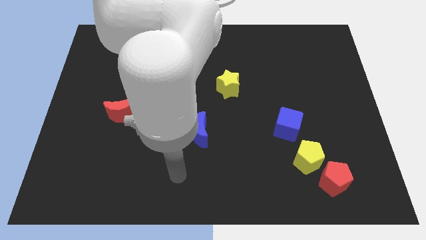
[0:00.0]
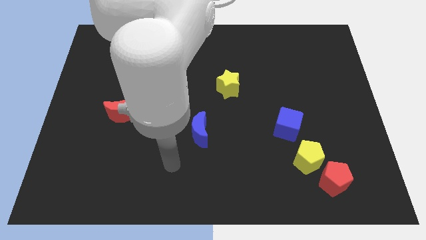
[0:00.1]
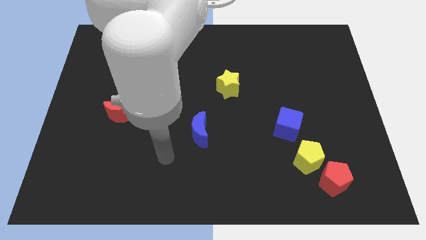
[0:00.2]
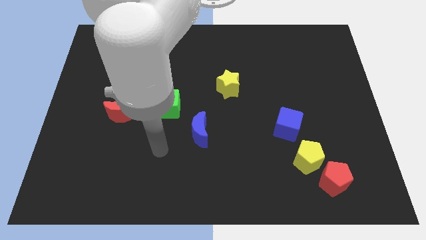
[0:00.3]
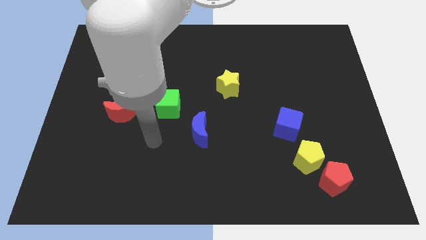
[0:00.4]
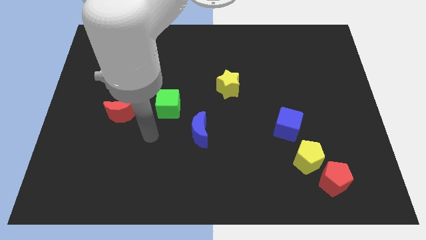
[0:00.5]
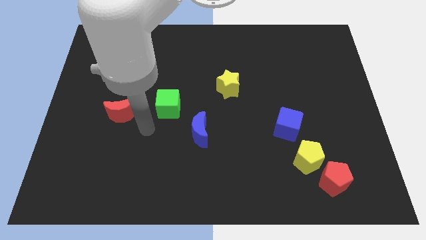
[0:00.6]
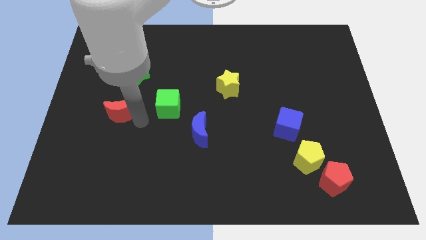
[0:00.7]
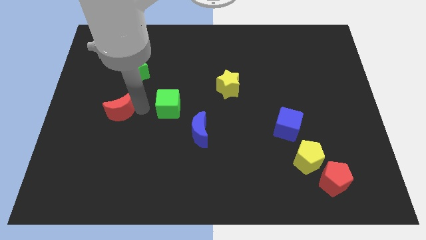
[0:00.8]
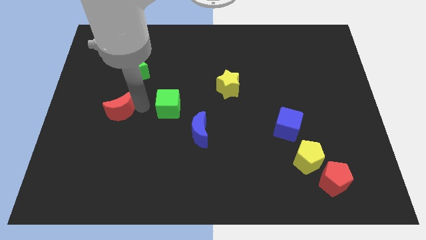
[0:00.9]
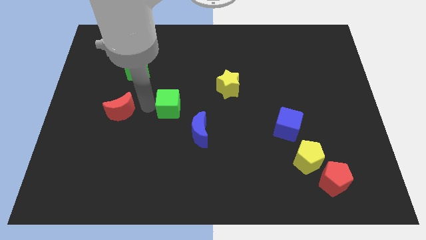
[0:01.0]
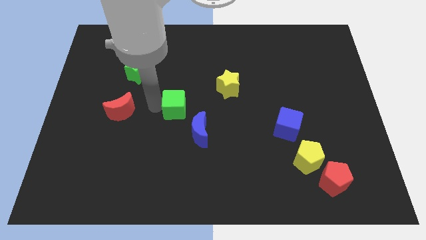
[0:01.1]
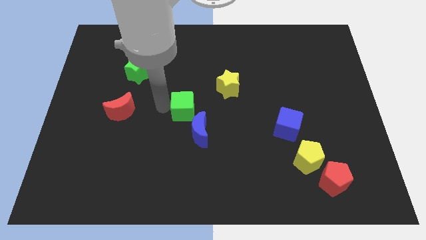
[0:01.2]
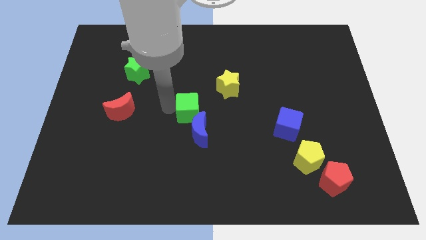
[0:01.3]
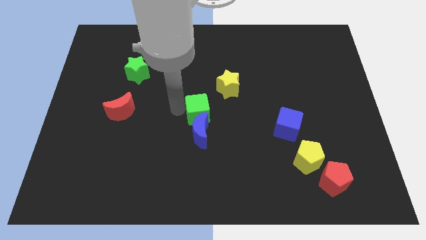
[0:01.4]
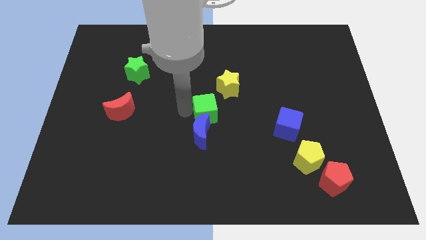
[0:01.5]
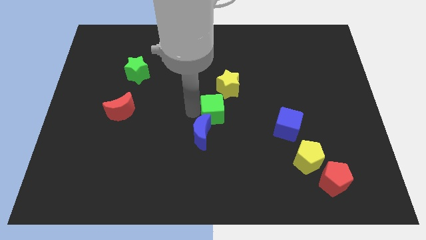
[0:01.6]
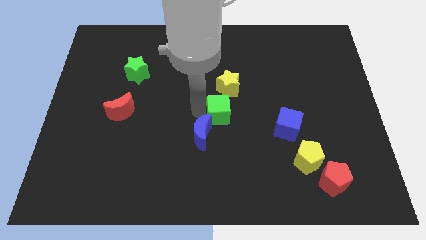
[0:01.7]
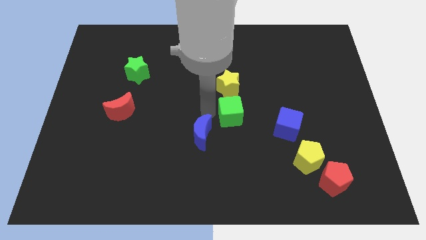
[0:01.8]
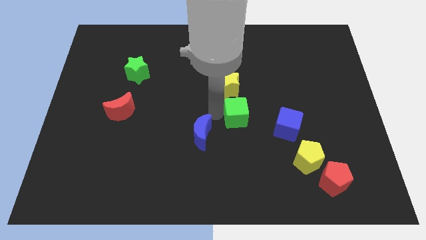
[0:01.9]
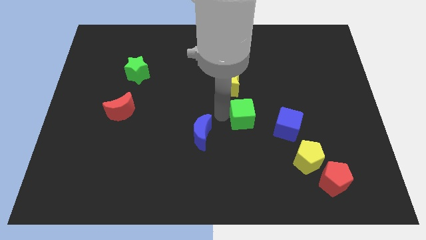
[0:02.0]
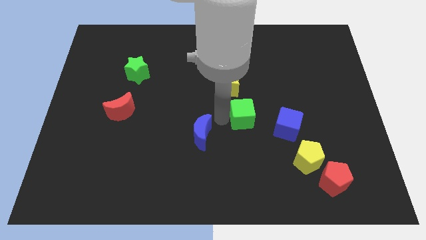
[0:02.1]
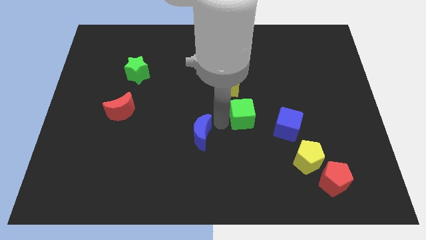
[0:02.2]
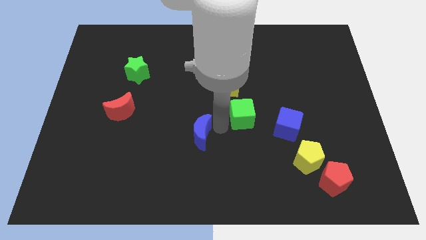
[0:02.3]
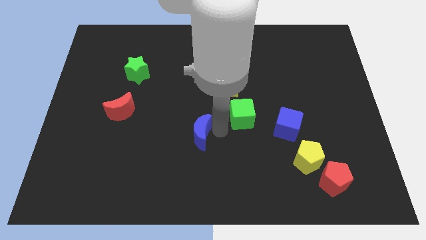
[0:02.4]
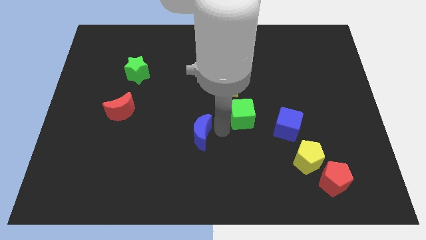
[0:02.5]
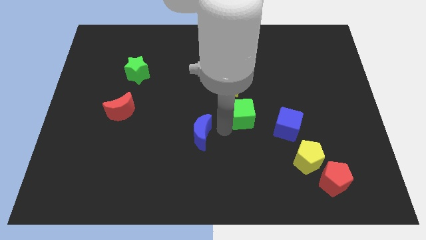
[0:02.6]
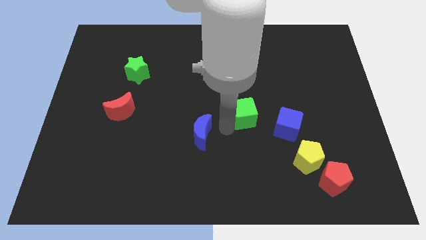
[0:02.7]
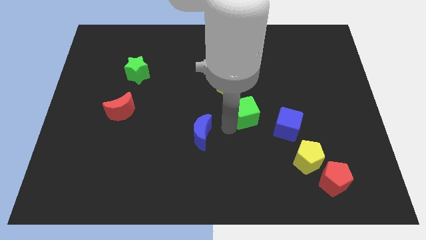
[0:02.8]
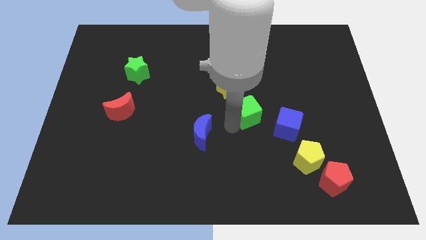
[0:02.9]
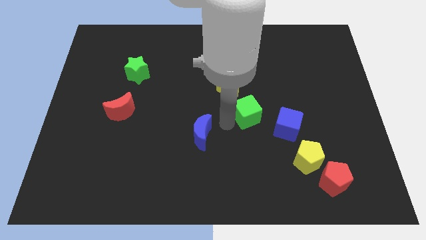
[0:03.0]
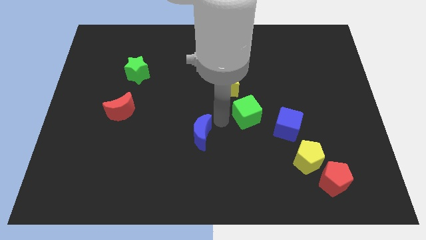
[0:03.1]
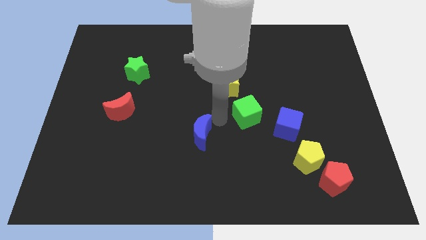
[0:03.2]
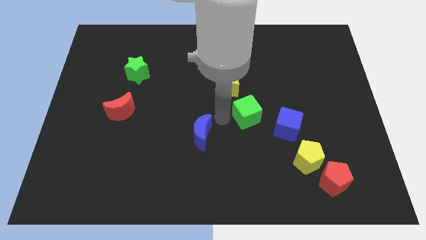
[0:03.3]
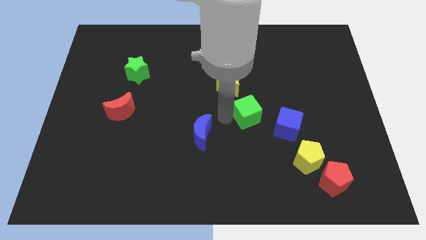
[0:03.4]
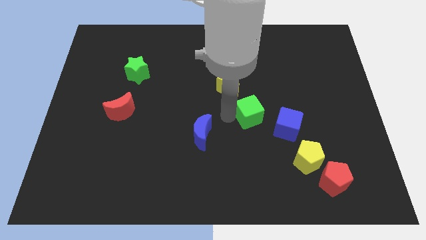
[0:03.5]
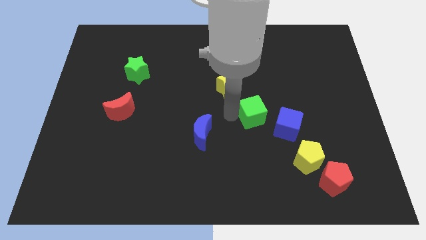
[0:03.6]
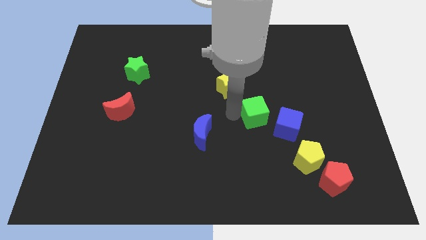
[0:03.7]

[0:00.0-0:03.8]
move the green cube right

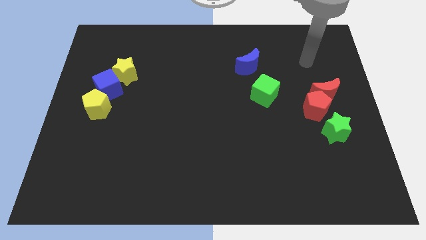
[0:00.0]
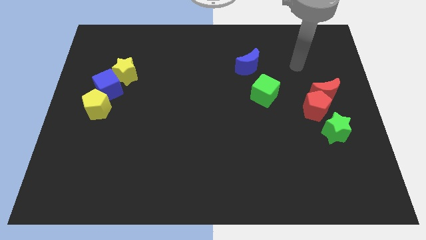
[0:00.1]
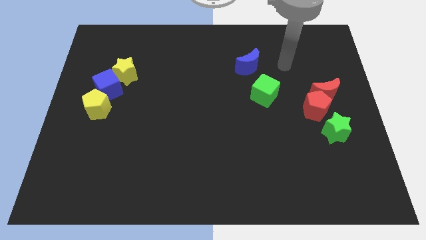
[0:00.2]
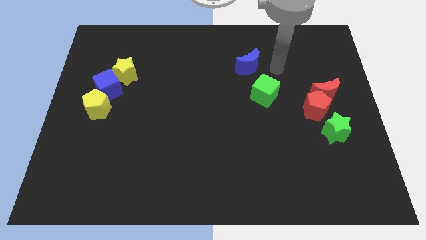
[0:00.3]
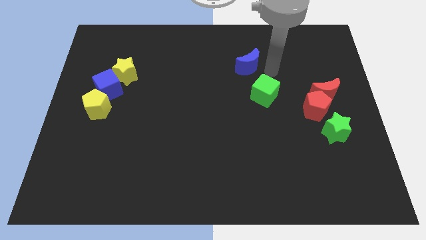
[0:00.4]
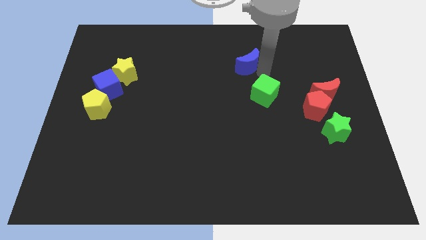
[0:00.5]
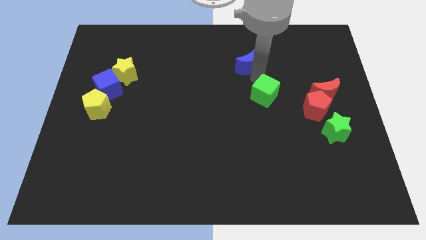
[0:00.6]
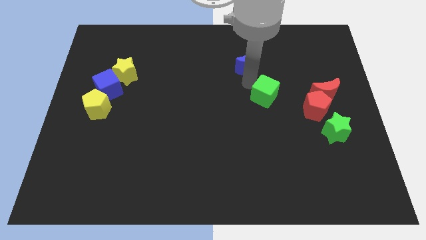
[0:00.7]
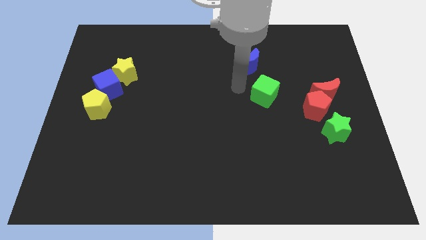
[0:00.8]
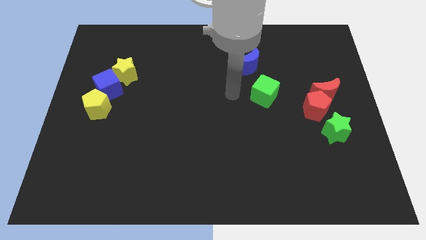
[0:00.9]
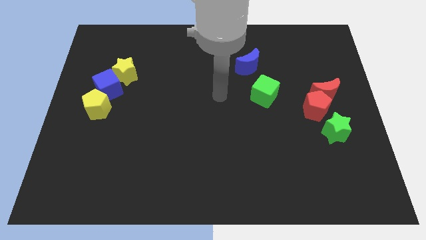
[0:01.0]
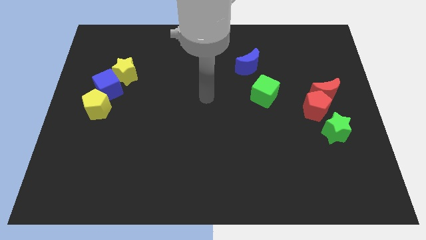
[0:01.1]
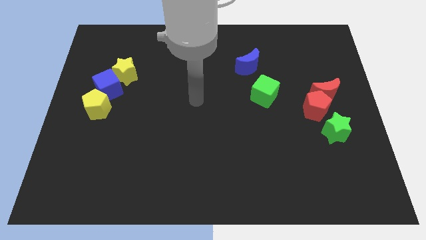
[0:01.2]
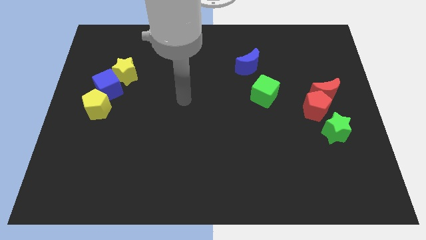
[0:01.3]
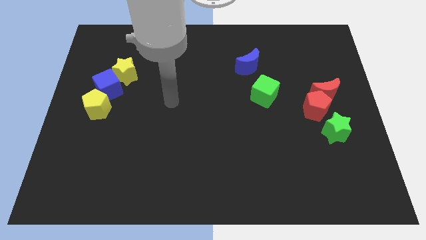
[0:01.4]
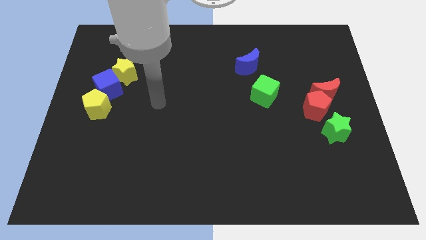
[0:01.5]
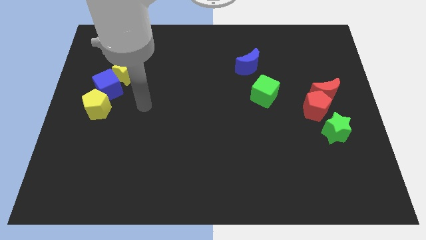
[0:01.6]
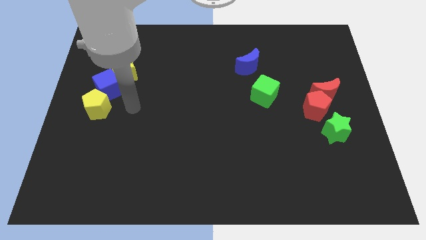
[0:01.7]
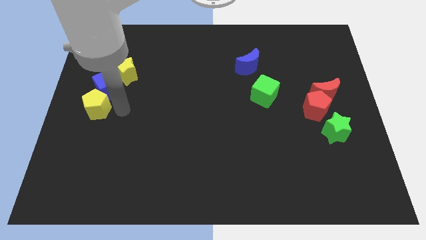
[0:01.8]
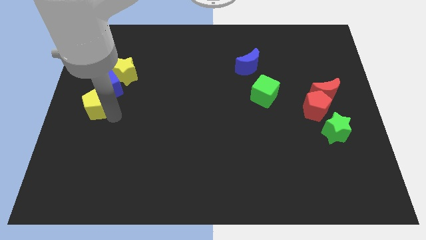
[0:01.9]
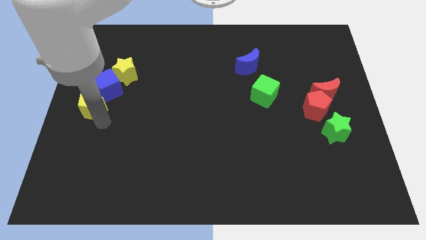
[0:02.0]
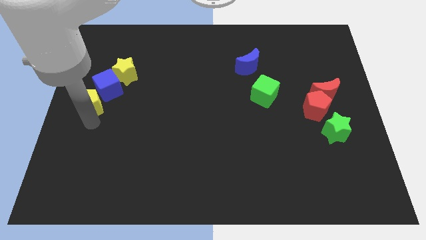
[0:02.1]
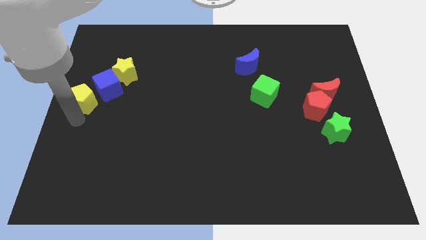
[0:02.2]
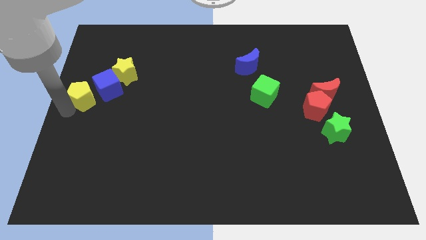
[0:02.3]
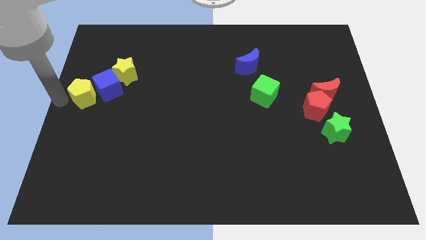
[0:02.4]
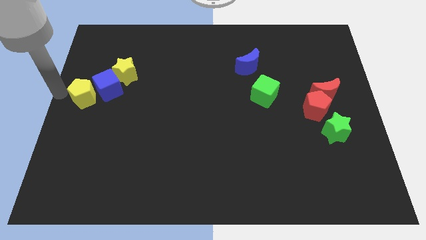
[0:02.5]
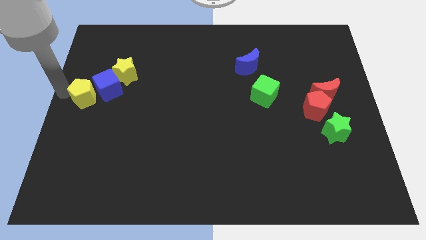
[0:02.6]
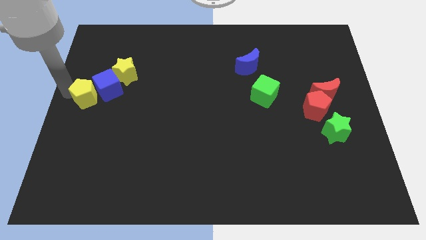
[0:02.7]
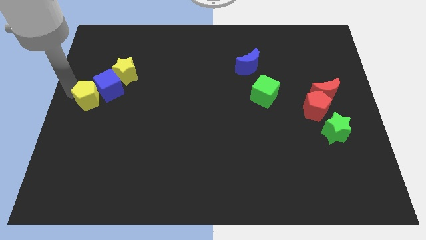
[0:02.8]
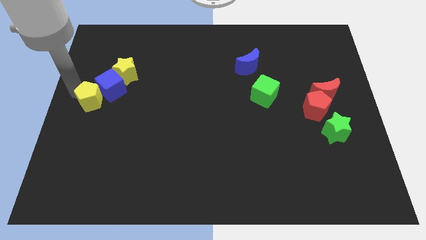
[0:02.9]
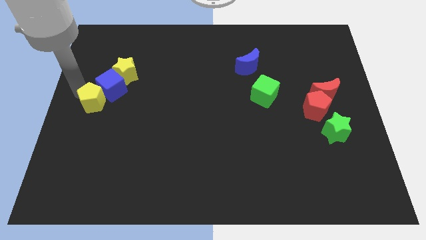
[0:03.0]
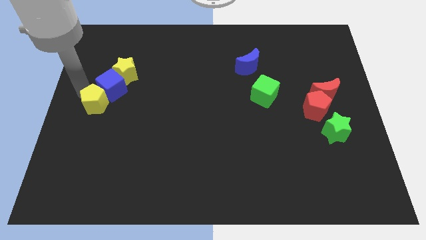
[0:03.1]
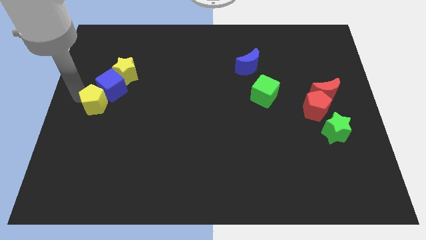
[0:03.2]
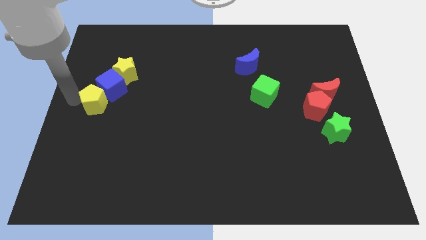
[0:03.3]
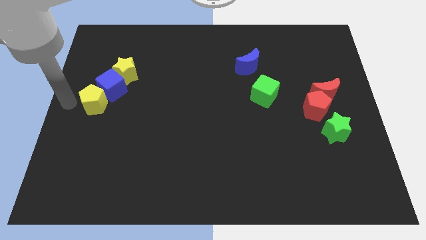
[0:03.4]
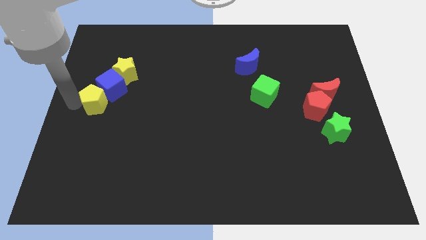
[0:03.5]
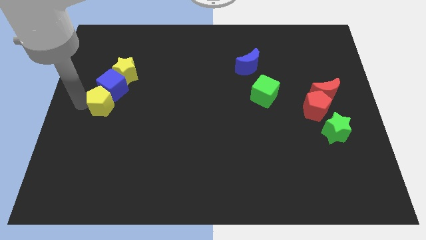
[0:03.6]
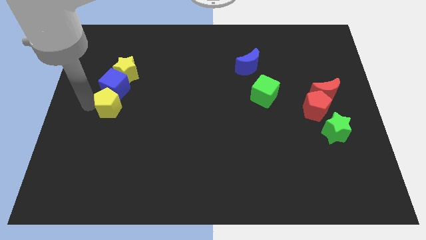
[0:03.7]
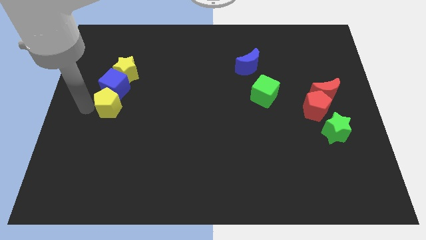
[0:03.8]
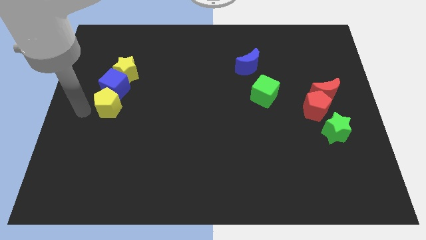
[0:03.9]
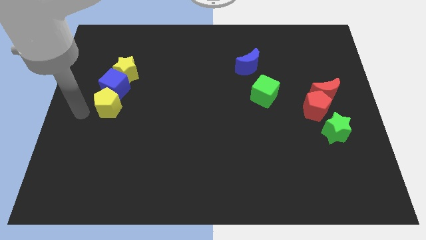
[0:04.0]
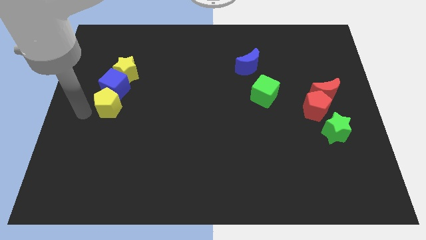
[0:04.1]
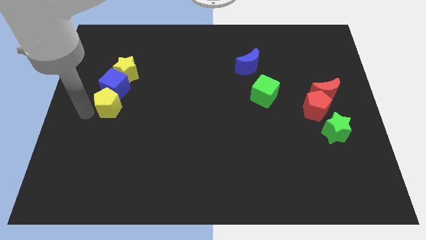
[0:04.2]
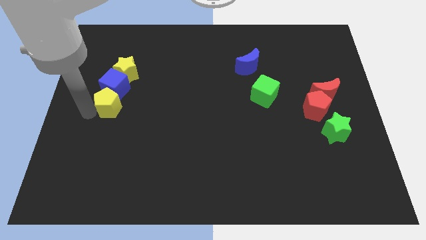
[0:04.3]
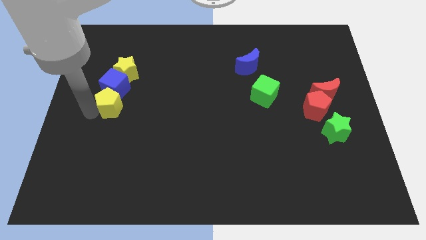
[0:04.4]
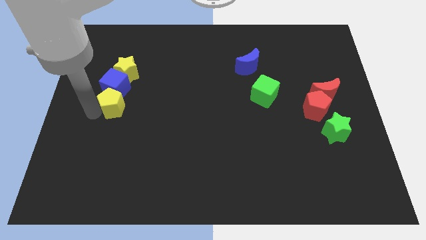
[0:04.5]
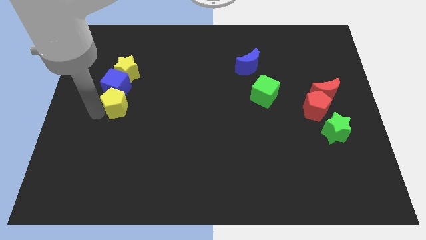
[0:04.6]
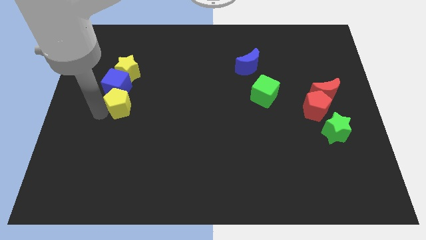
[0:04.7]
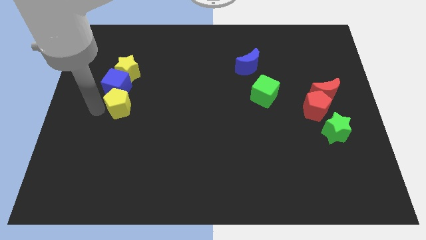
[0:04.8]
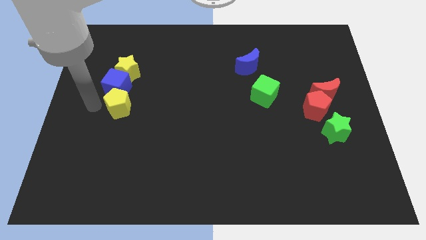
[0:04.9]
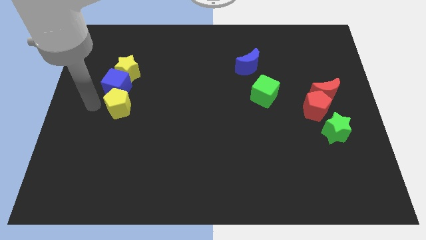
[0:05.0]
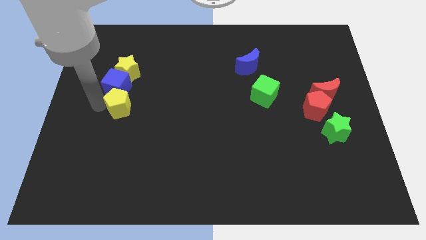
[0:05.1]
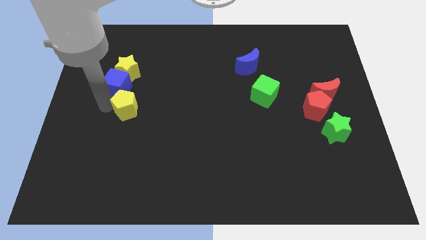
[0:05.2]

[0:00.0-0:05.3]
push the yellow pentagon slightly right
